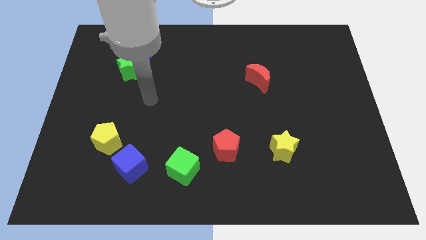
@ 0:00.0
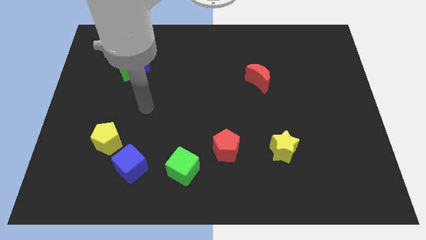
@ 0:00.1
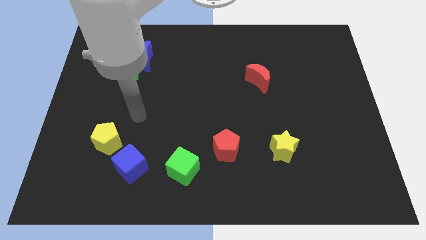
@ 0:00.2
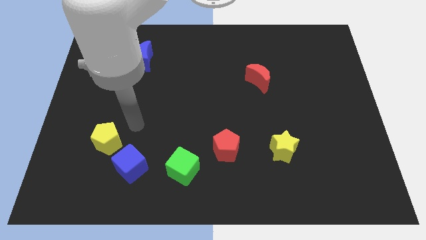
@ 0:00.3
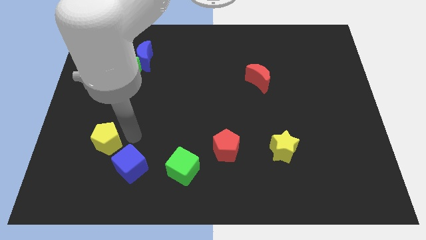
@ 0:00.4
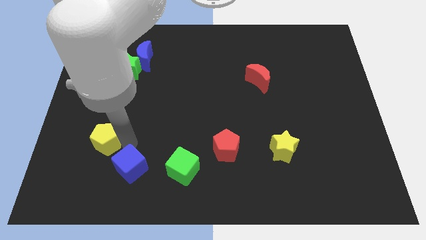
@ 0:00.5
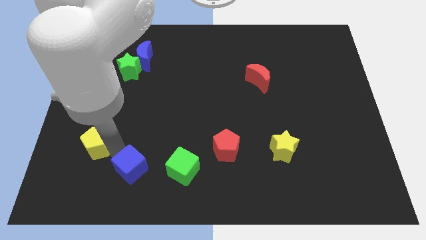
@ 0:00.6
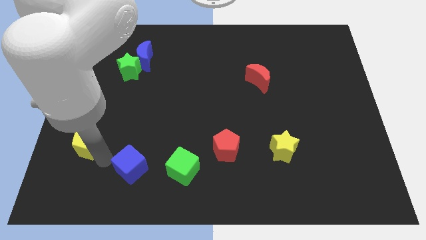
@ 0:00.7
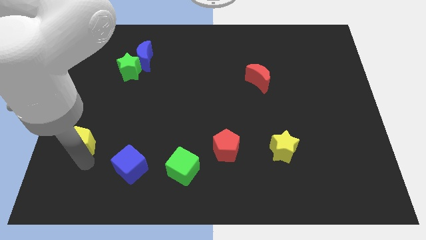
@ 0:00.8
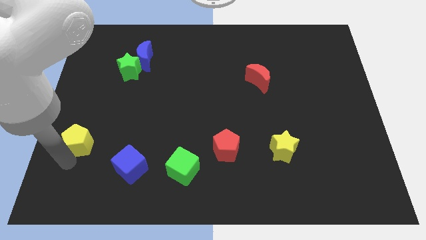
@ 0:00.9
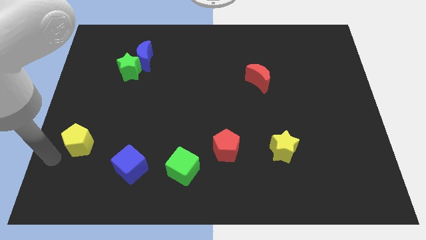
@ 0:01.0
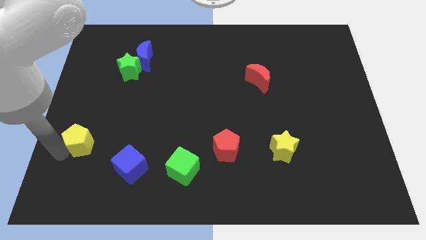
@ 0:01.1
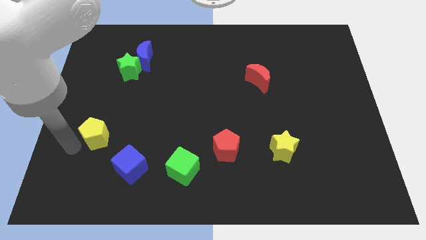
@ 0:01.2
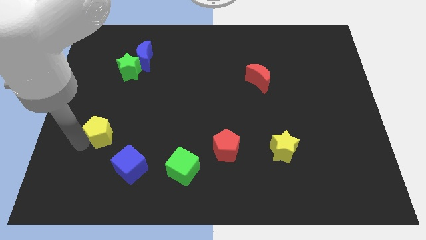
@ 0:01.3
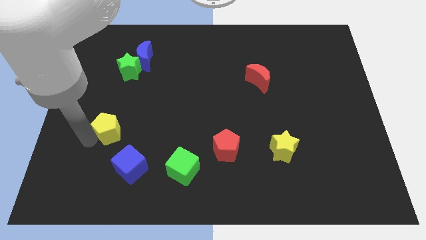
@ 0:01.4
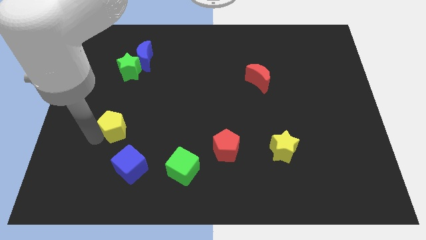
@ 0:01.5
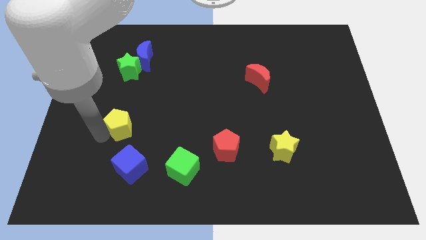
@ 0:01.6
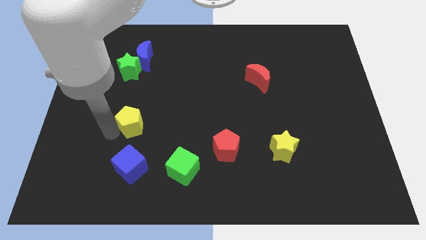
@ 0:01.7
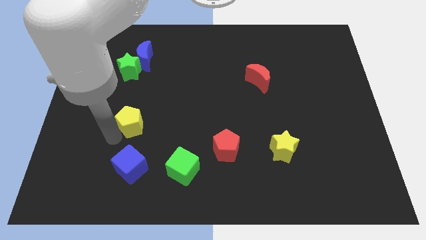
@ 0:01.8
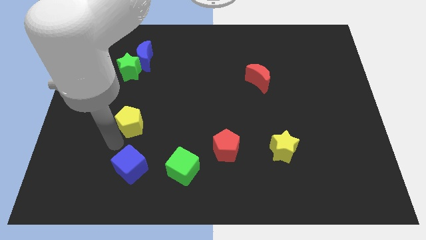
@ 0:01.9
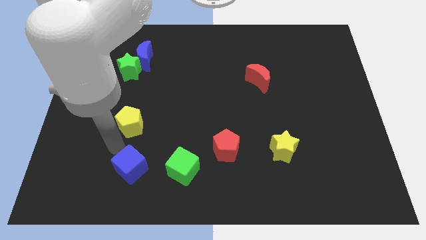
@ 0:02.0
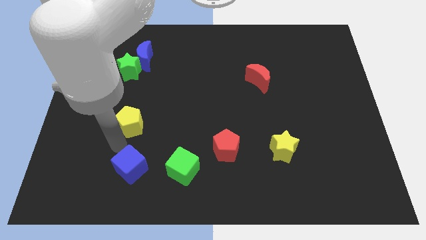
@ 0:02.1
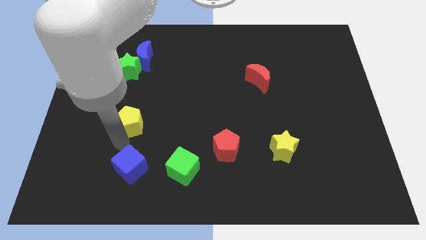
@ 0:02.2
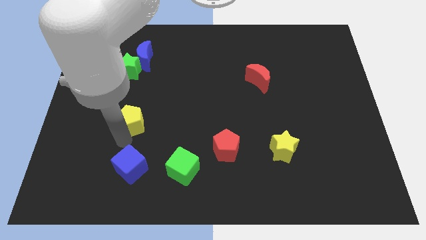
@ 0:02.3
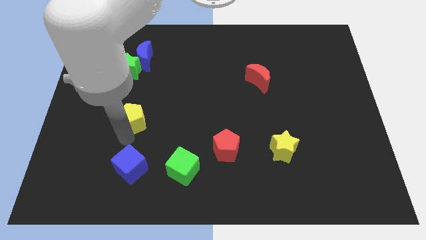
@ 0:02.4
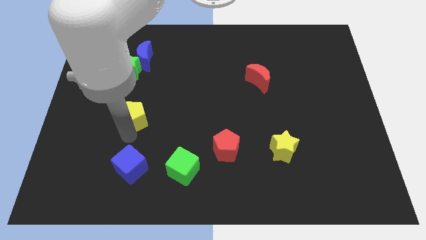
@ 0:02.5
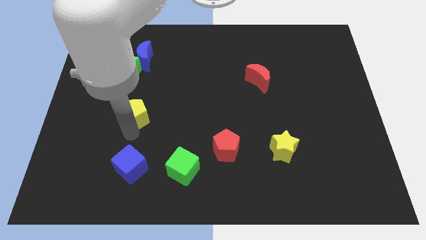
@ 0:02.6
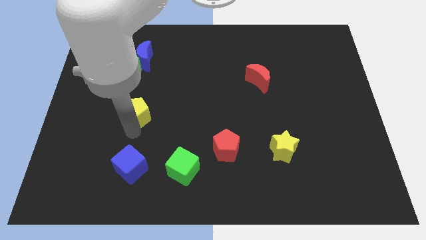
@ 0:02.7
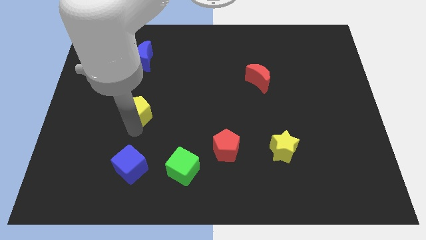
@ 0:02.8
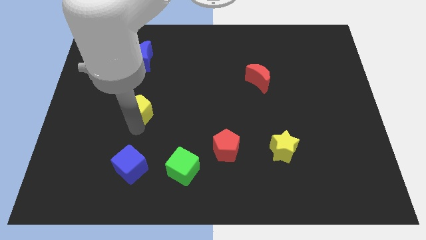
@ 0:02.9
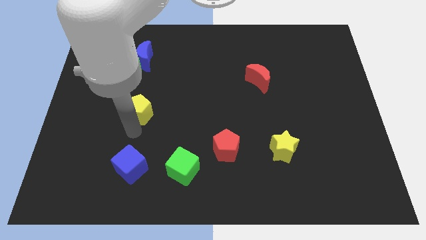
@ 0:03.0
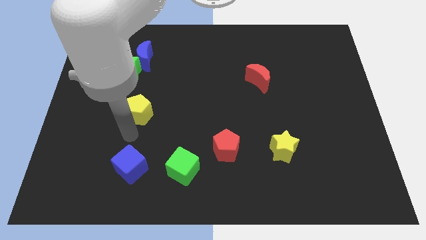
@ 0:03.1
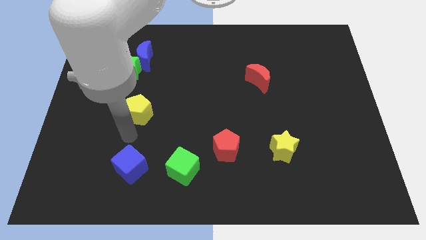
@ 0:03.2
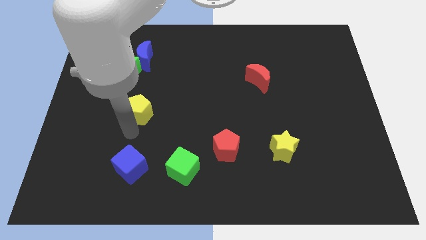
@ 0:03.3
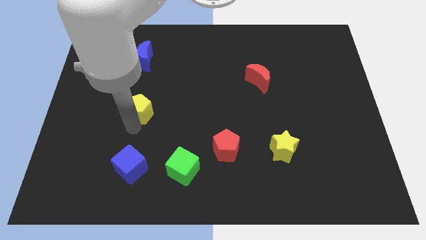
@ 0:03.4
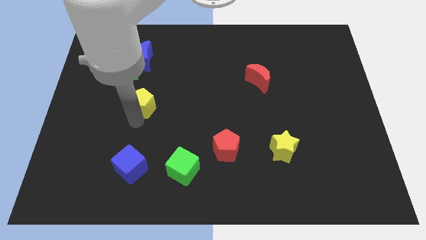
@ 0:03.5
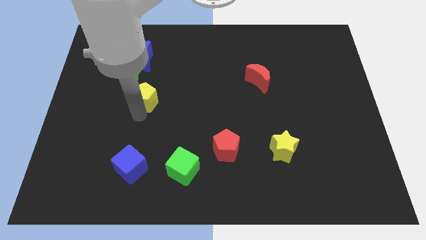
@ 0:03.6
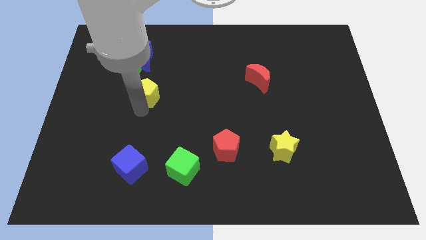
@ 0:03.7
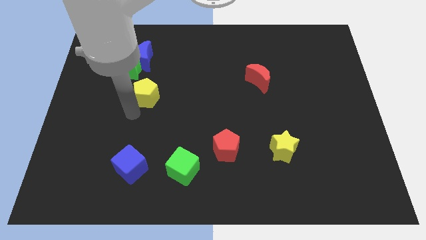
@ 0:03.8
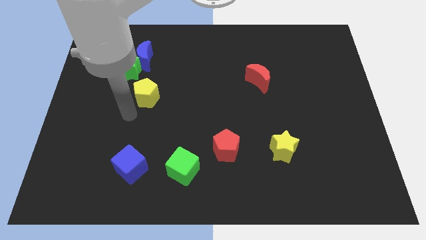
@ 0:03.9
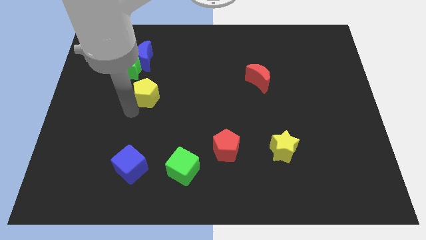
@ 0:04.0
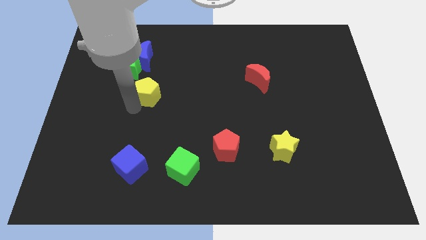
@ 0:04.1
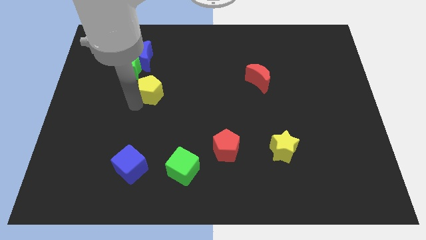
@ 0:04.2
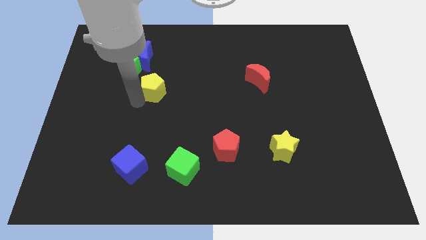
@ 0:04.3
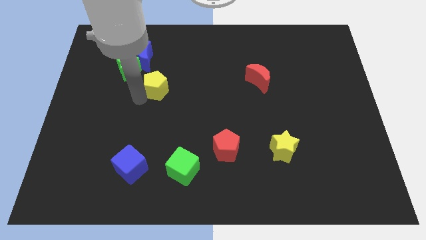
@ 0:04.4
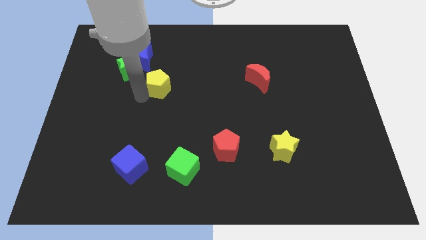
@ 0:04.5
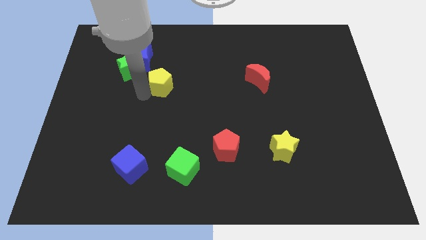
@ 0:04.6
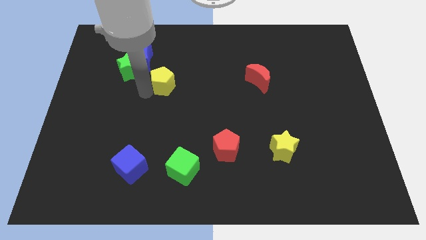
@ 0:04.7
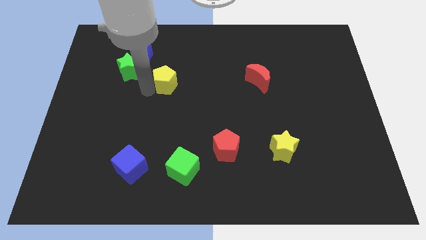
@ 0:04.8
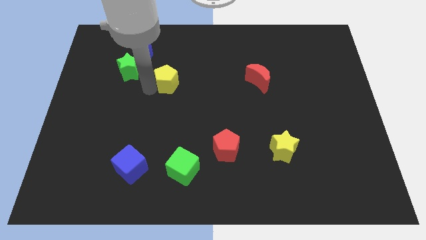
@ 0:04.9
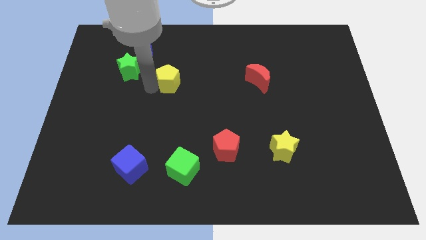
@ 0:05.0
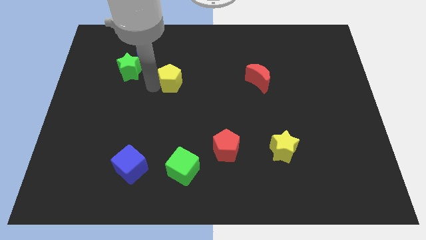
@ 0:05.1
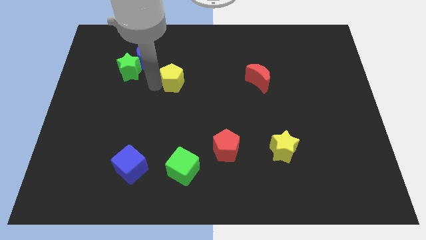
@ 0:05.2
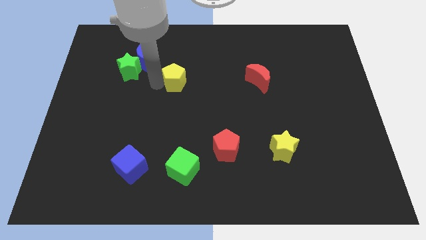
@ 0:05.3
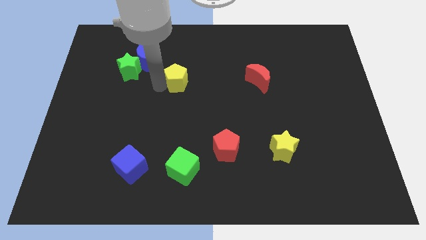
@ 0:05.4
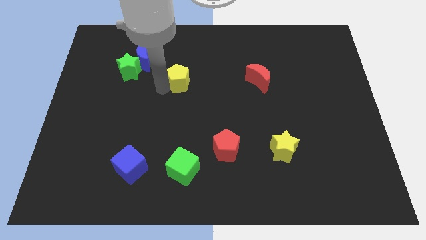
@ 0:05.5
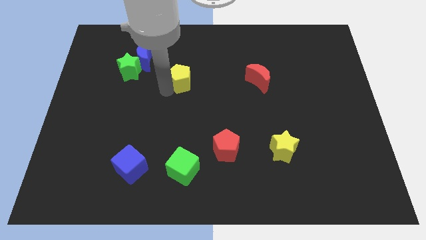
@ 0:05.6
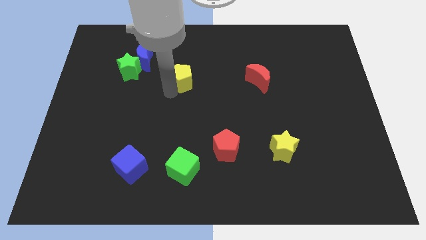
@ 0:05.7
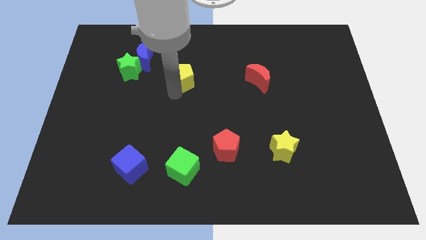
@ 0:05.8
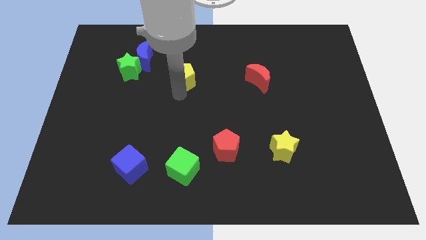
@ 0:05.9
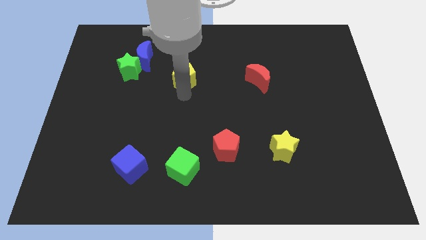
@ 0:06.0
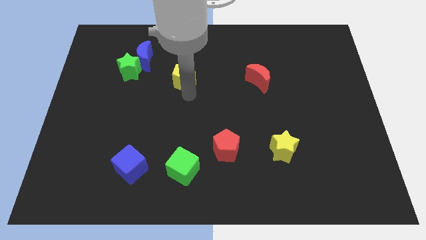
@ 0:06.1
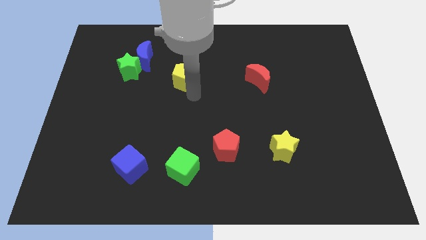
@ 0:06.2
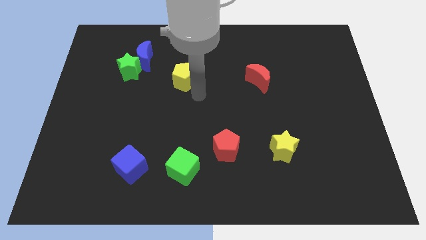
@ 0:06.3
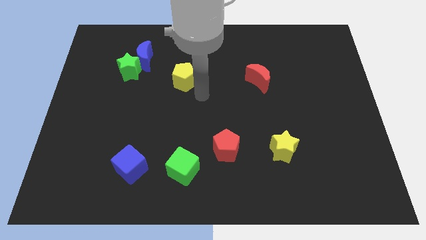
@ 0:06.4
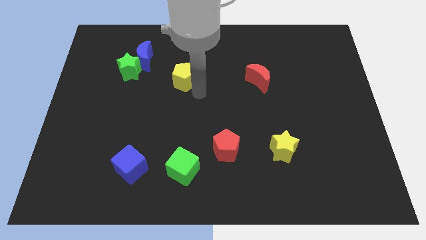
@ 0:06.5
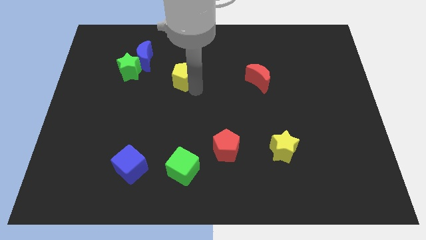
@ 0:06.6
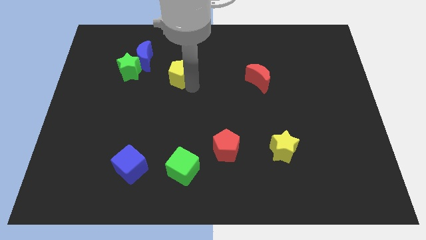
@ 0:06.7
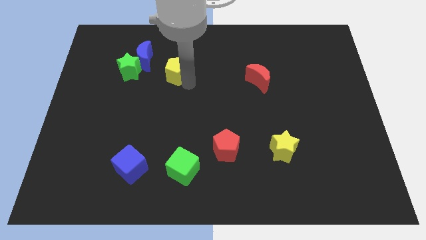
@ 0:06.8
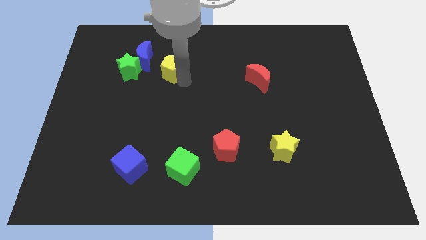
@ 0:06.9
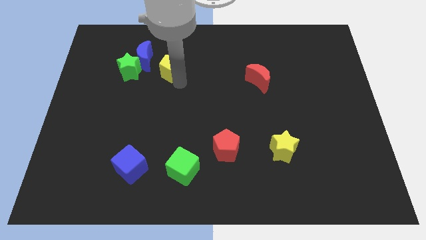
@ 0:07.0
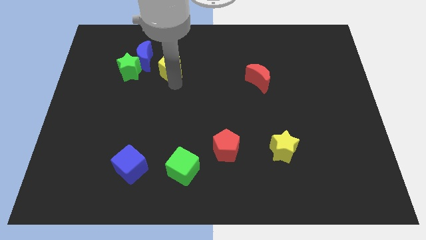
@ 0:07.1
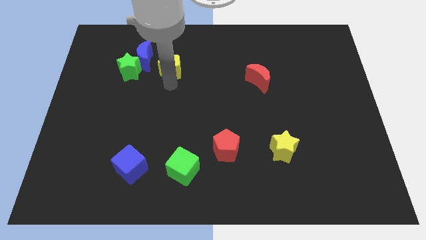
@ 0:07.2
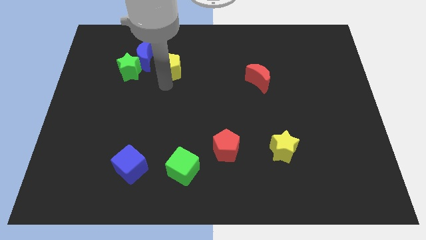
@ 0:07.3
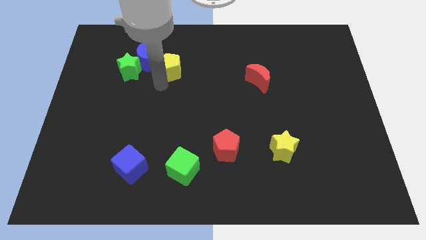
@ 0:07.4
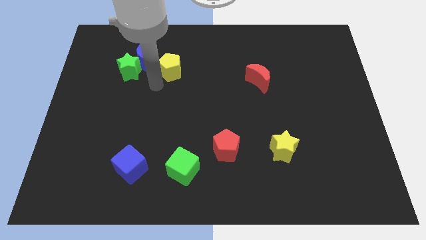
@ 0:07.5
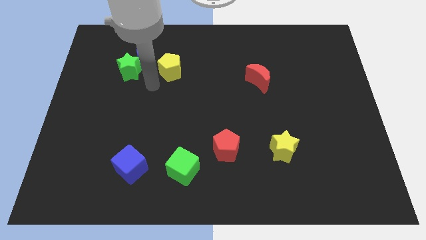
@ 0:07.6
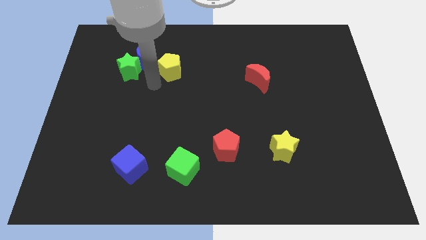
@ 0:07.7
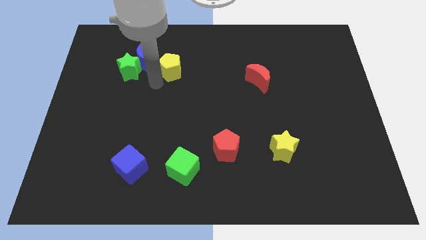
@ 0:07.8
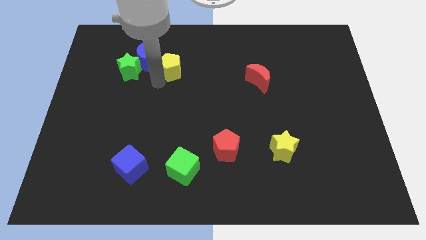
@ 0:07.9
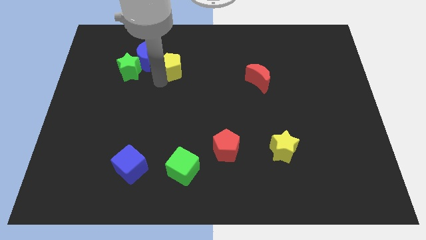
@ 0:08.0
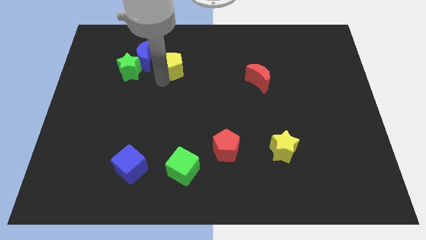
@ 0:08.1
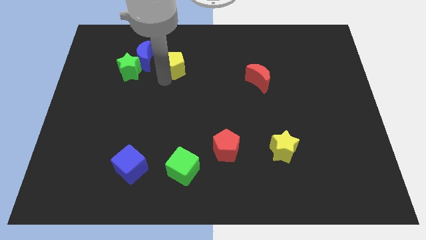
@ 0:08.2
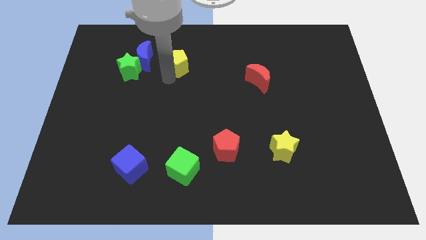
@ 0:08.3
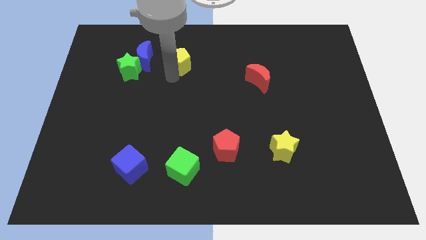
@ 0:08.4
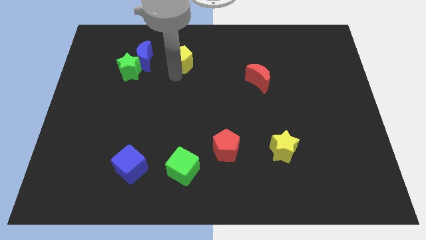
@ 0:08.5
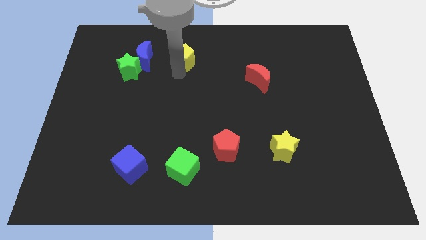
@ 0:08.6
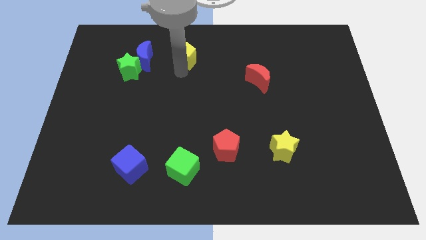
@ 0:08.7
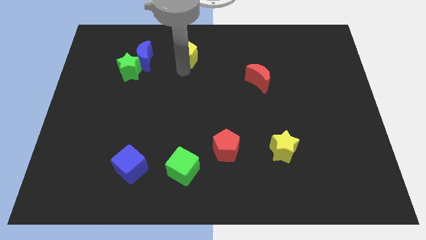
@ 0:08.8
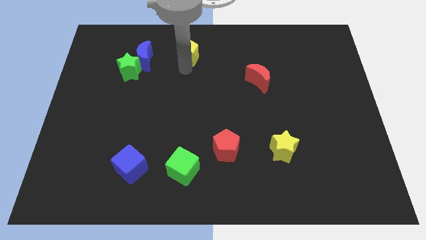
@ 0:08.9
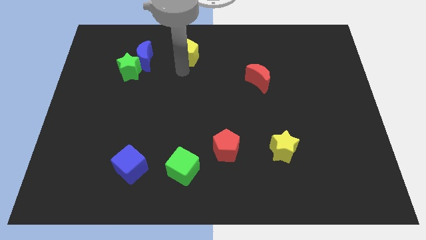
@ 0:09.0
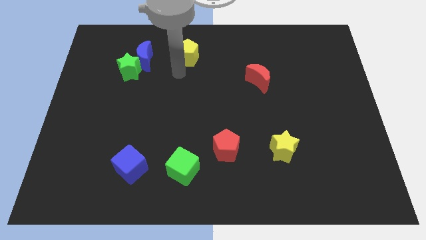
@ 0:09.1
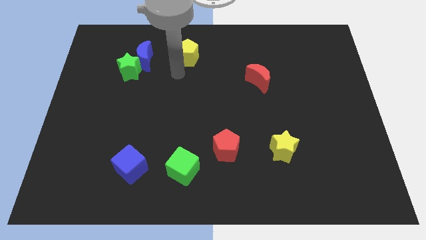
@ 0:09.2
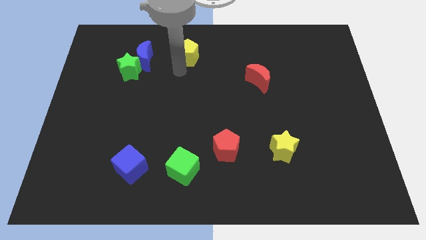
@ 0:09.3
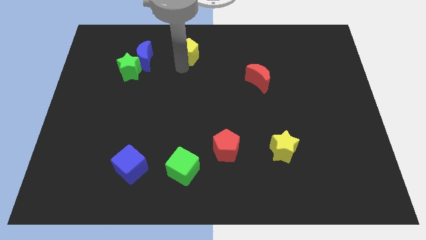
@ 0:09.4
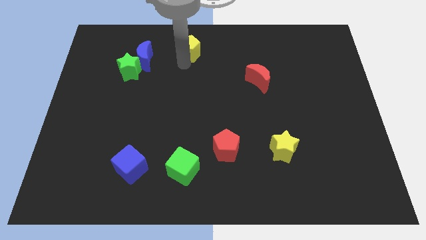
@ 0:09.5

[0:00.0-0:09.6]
move the yellow pentagon to the top side
